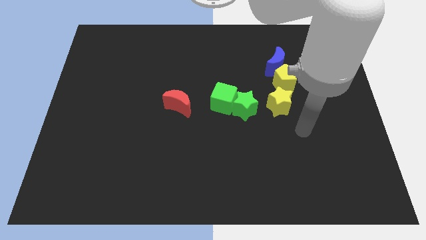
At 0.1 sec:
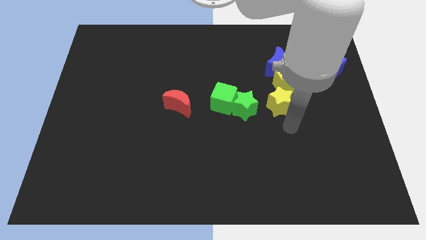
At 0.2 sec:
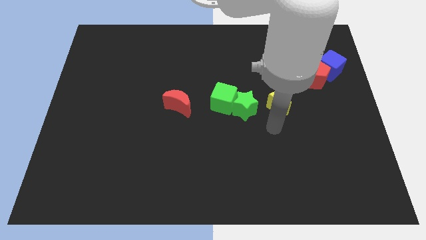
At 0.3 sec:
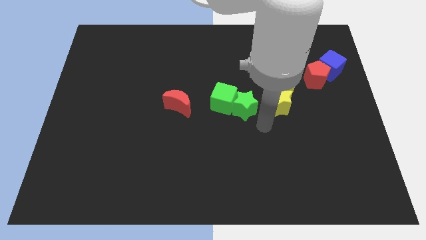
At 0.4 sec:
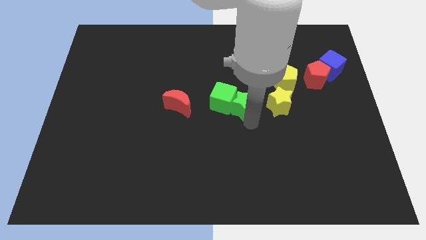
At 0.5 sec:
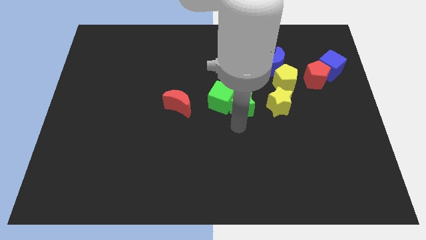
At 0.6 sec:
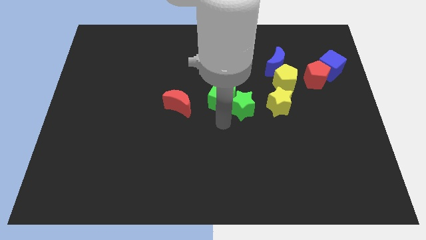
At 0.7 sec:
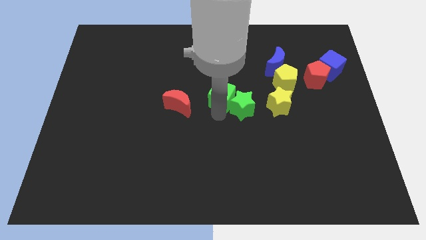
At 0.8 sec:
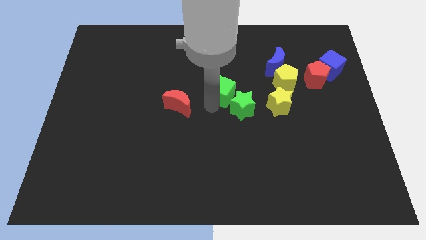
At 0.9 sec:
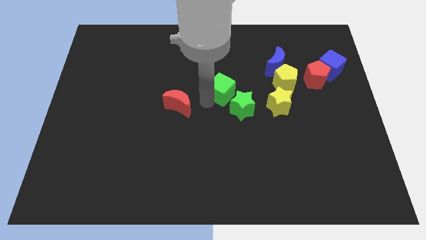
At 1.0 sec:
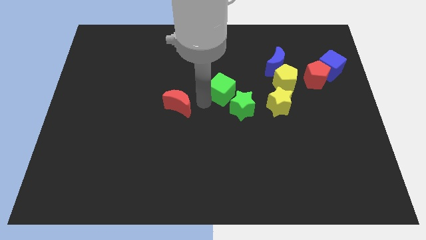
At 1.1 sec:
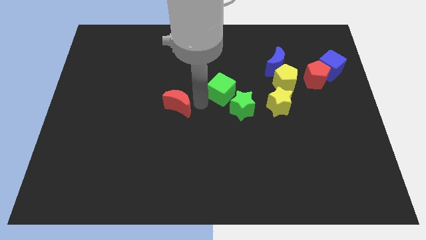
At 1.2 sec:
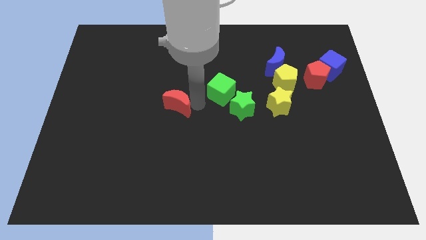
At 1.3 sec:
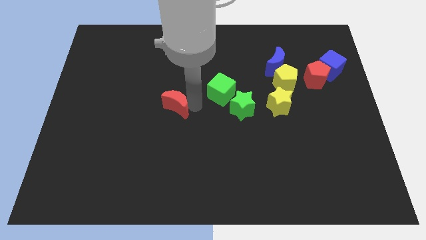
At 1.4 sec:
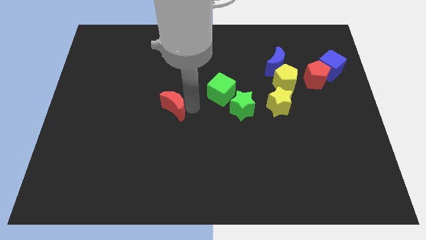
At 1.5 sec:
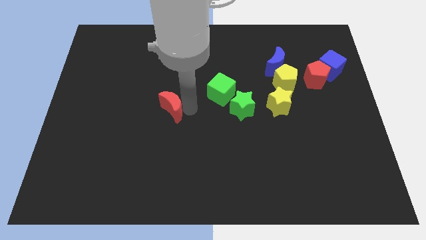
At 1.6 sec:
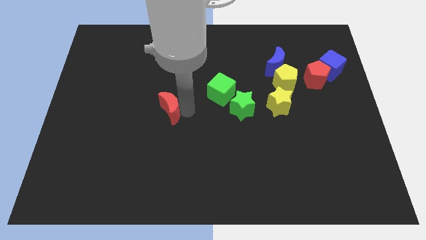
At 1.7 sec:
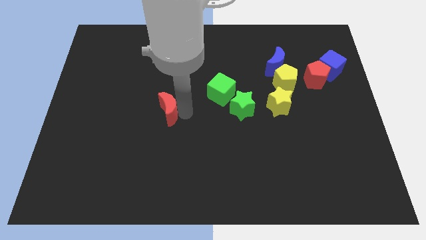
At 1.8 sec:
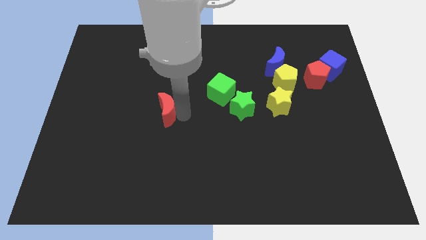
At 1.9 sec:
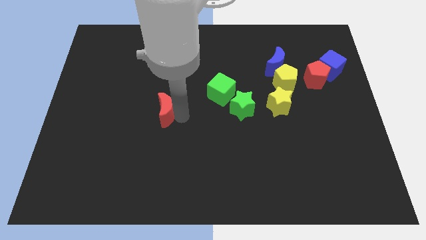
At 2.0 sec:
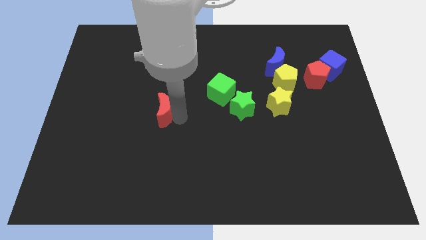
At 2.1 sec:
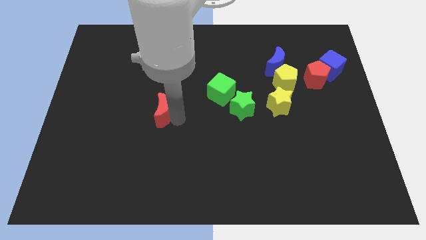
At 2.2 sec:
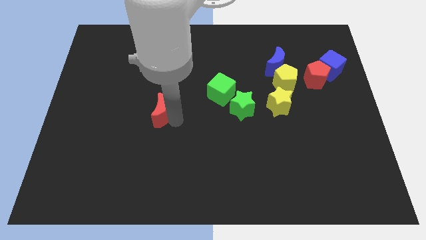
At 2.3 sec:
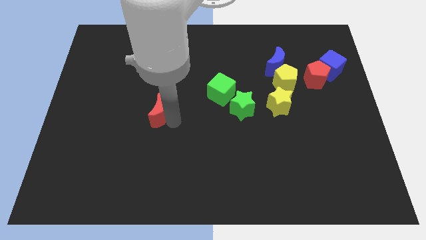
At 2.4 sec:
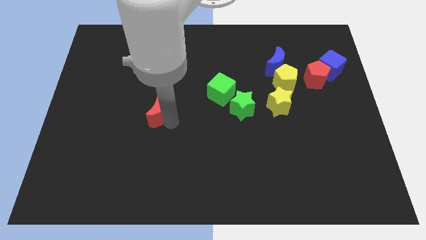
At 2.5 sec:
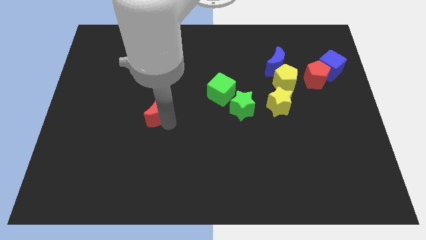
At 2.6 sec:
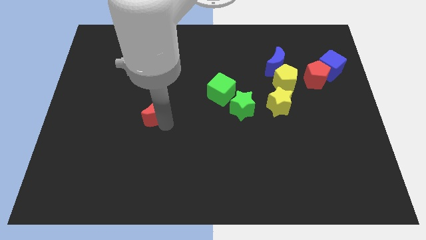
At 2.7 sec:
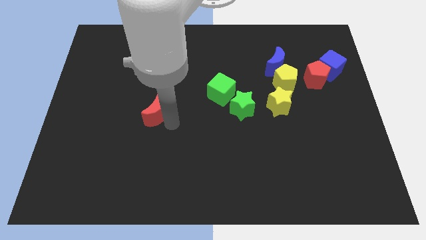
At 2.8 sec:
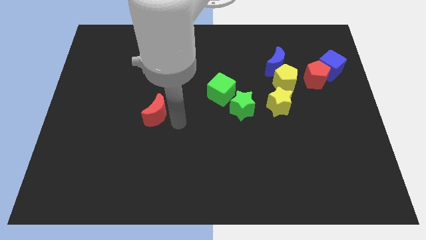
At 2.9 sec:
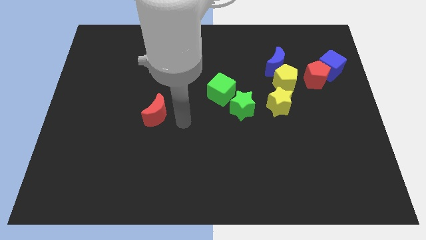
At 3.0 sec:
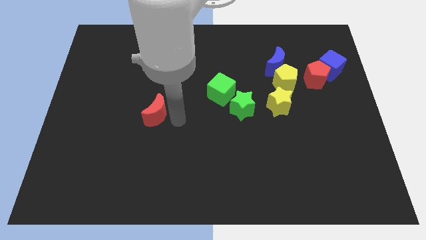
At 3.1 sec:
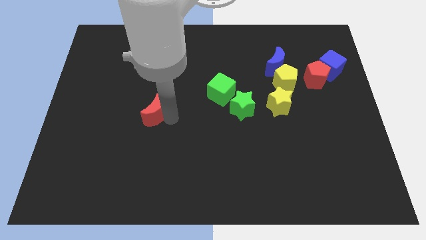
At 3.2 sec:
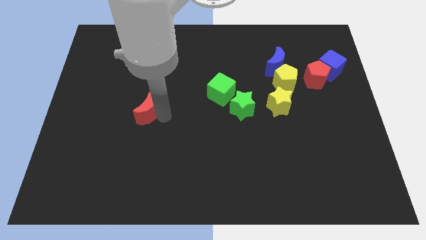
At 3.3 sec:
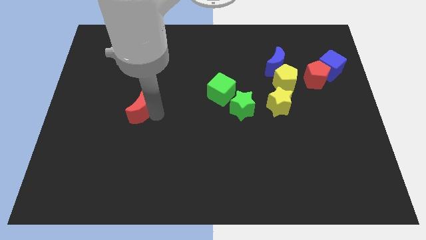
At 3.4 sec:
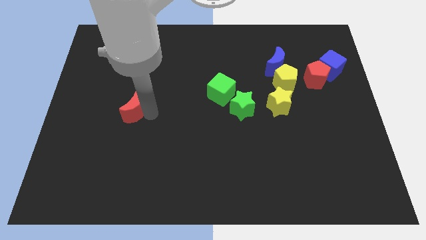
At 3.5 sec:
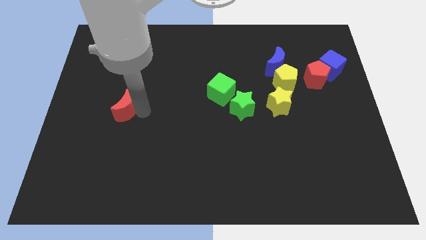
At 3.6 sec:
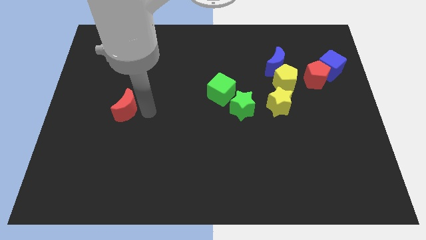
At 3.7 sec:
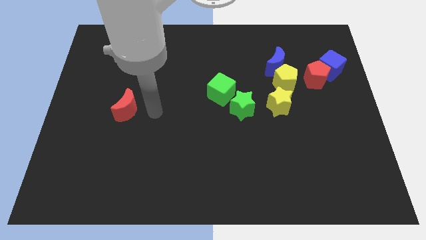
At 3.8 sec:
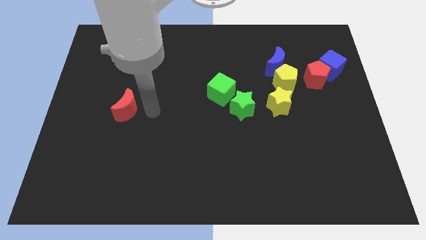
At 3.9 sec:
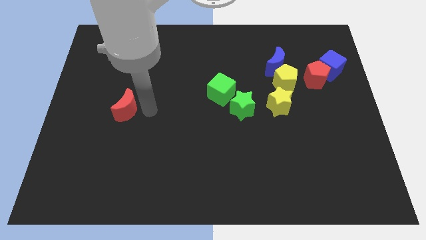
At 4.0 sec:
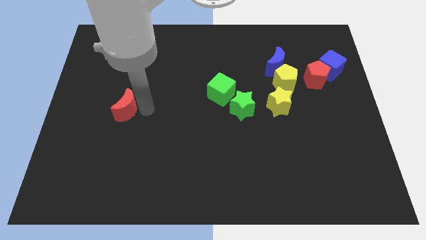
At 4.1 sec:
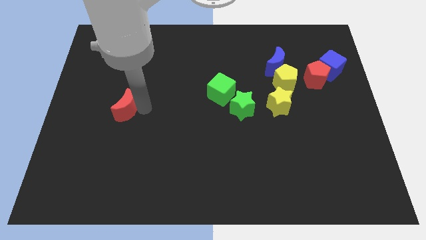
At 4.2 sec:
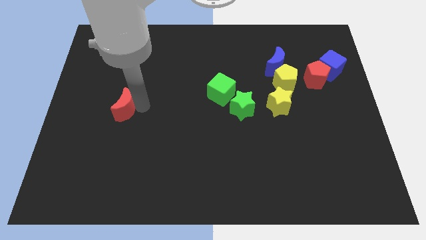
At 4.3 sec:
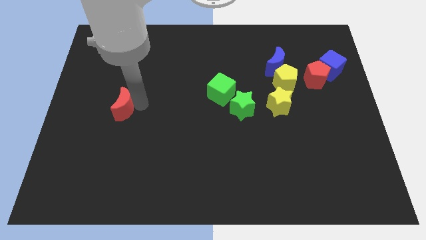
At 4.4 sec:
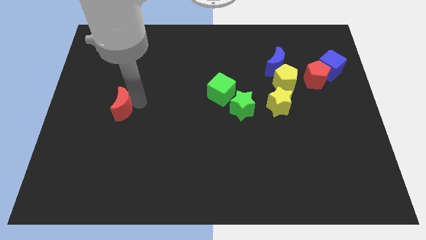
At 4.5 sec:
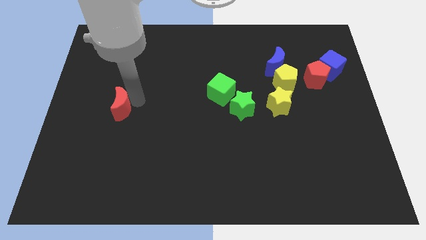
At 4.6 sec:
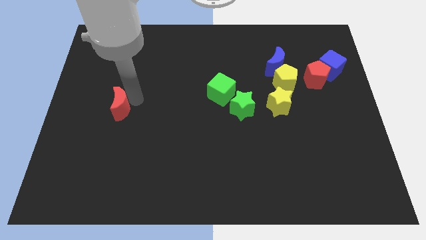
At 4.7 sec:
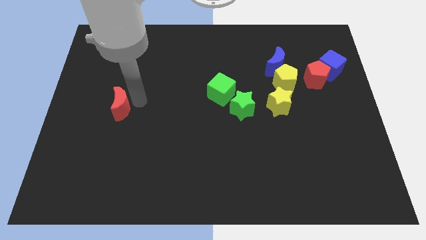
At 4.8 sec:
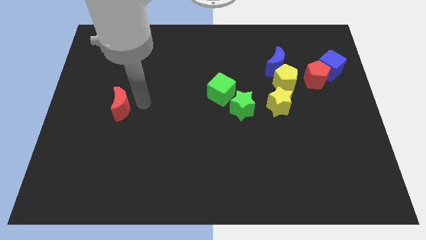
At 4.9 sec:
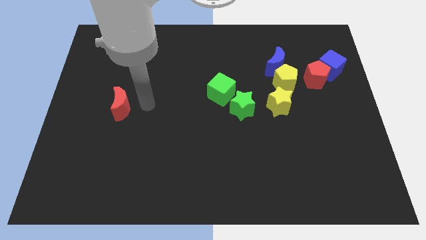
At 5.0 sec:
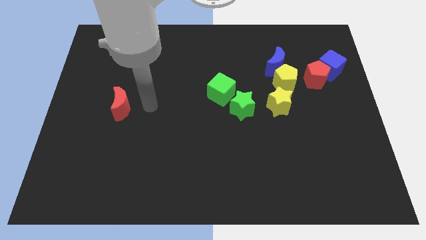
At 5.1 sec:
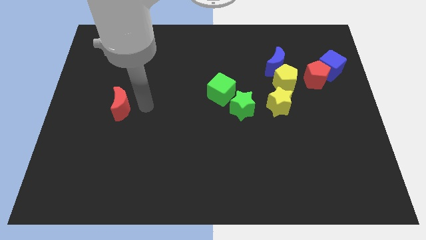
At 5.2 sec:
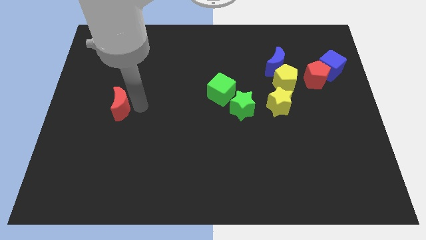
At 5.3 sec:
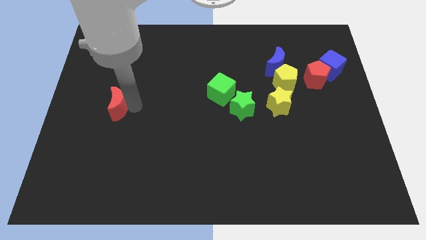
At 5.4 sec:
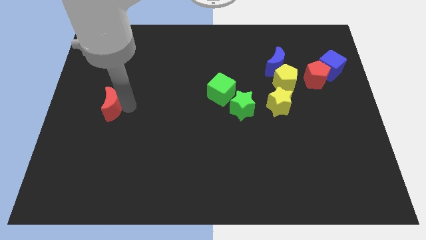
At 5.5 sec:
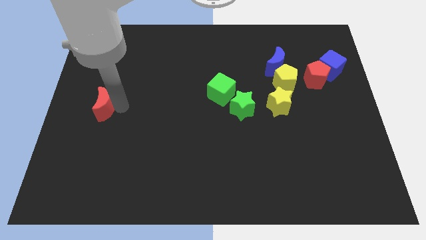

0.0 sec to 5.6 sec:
move the red moon to the center left

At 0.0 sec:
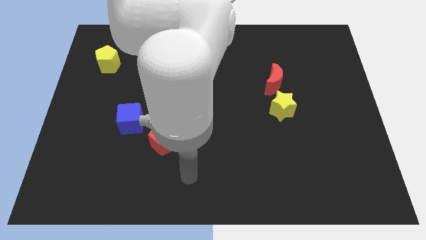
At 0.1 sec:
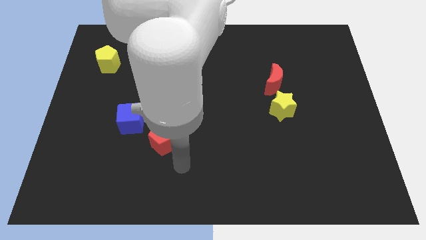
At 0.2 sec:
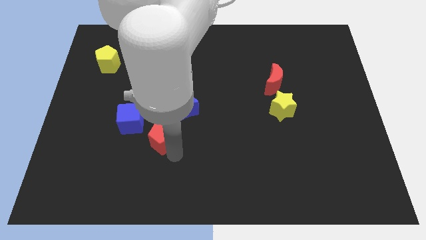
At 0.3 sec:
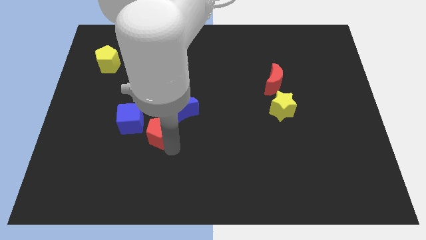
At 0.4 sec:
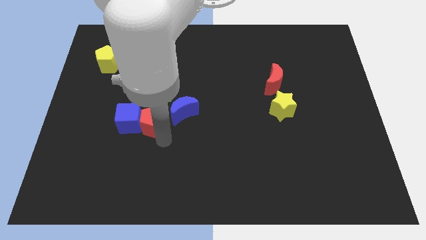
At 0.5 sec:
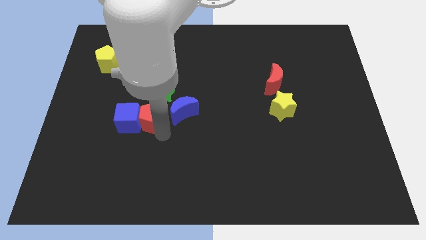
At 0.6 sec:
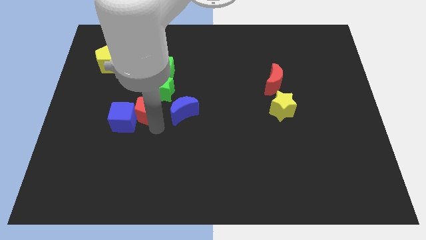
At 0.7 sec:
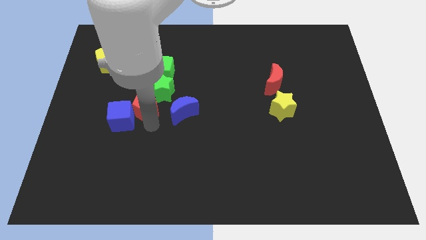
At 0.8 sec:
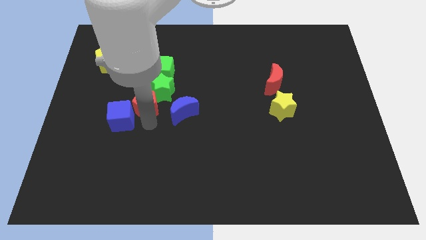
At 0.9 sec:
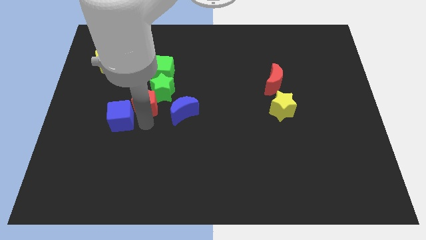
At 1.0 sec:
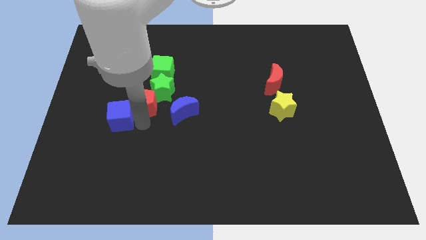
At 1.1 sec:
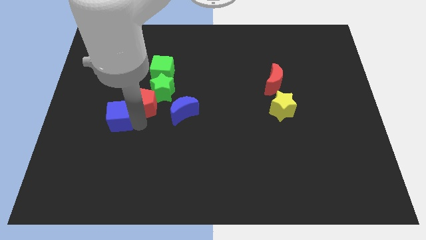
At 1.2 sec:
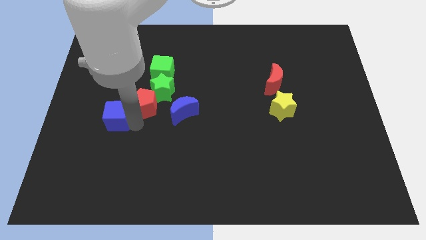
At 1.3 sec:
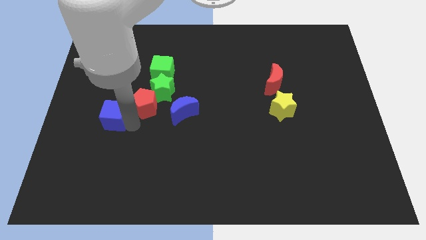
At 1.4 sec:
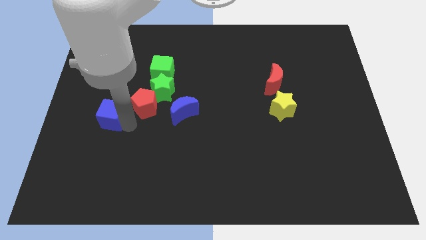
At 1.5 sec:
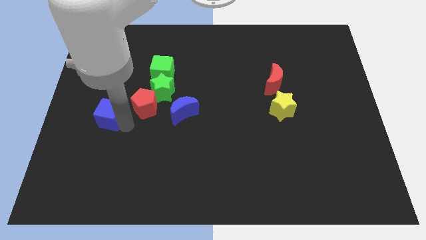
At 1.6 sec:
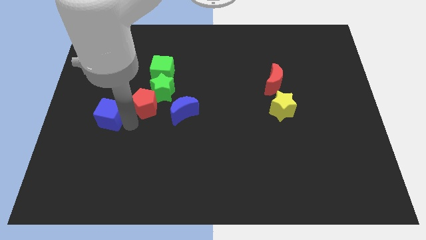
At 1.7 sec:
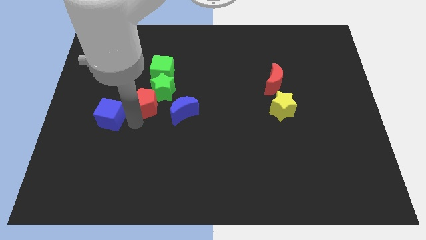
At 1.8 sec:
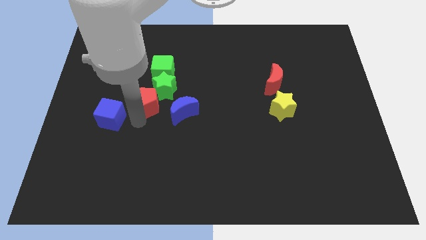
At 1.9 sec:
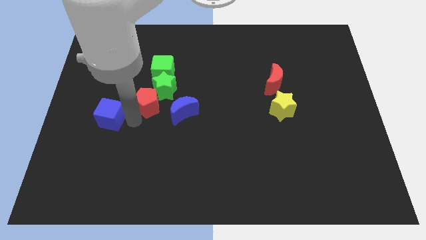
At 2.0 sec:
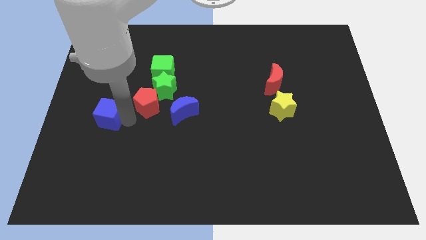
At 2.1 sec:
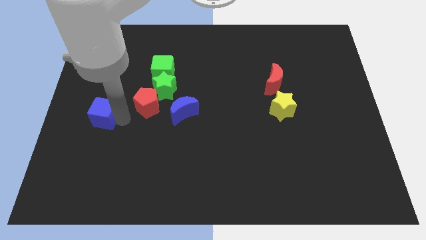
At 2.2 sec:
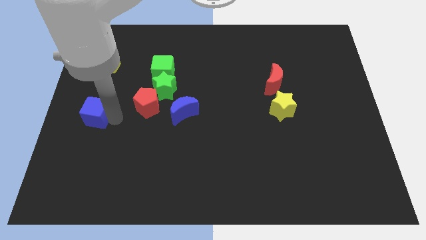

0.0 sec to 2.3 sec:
slide the blue cube to the center left
